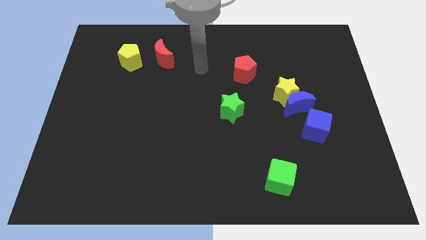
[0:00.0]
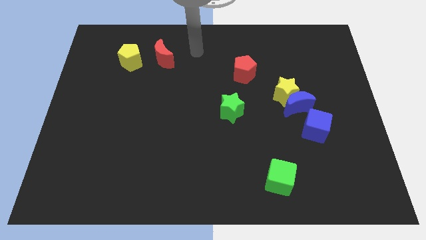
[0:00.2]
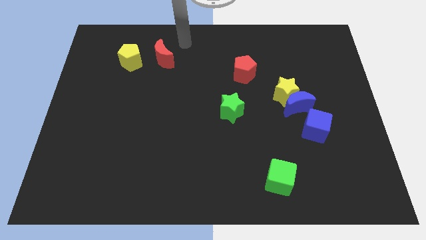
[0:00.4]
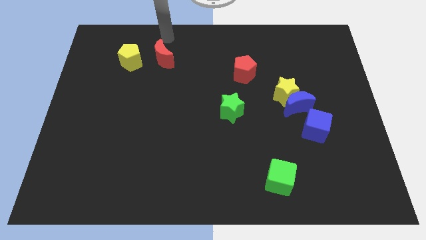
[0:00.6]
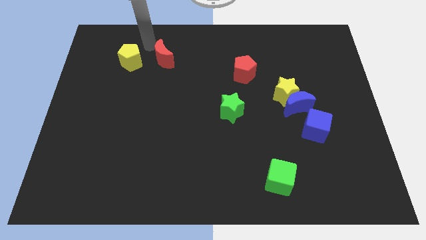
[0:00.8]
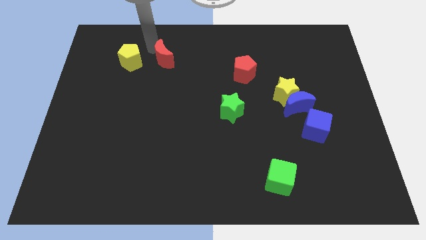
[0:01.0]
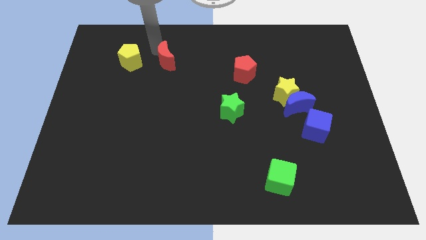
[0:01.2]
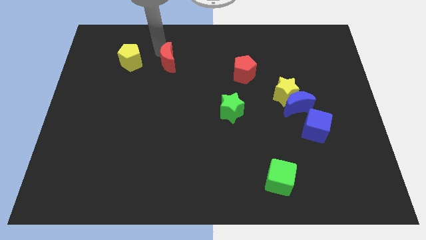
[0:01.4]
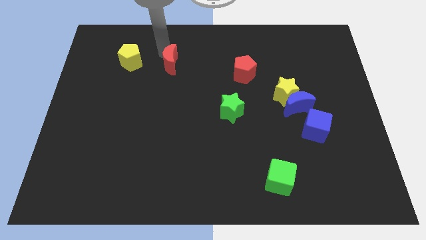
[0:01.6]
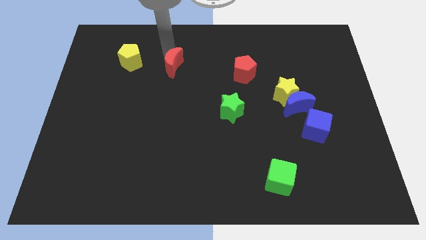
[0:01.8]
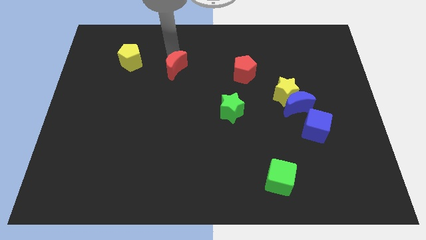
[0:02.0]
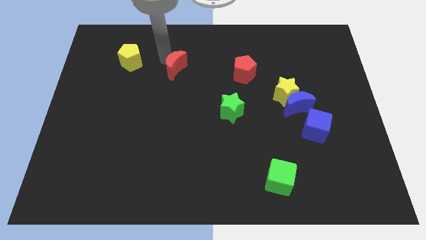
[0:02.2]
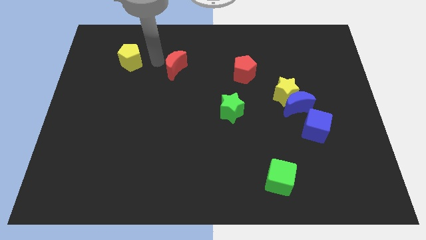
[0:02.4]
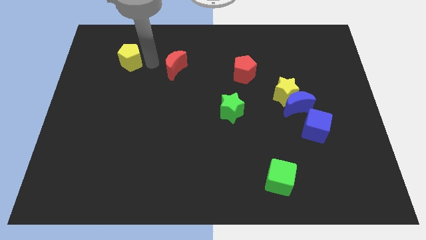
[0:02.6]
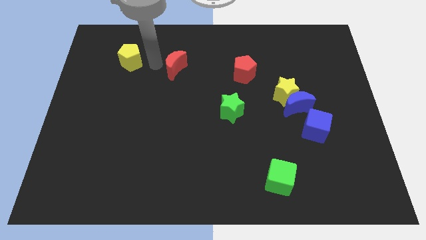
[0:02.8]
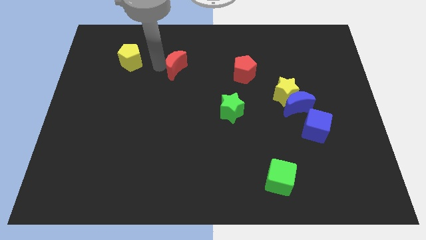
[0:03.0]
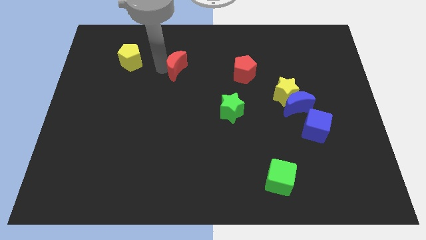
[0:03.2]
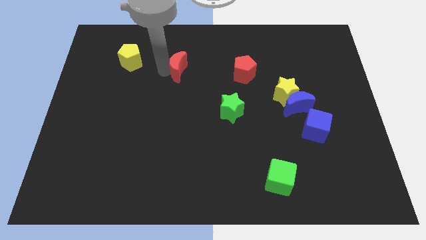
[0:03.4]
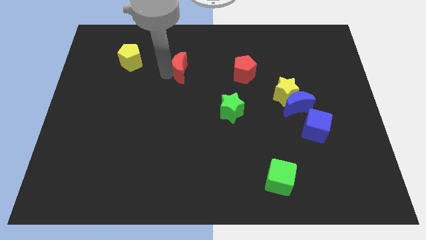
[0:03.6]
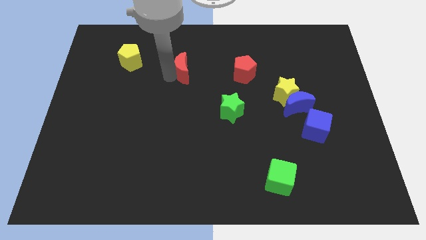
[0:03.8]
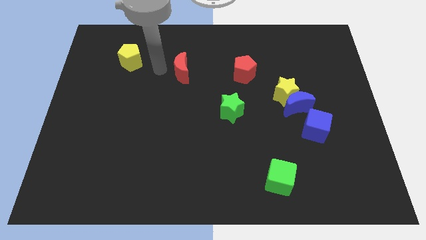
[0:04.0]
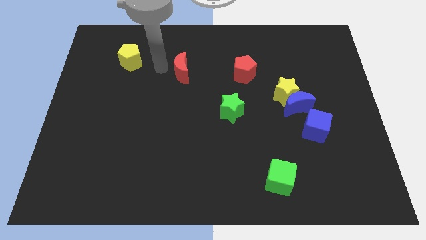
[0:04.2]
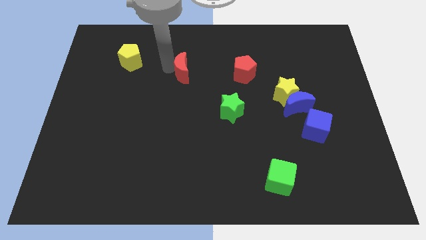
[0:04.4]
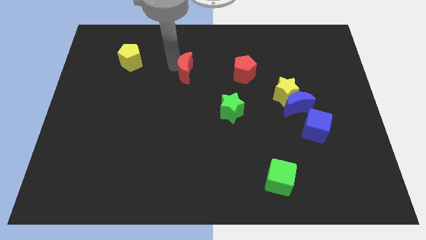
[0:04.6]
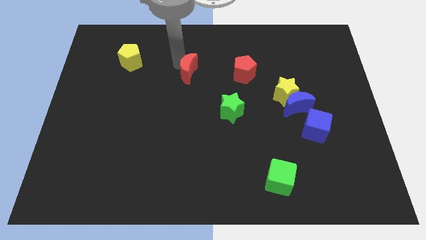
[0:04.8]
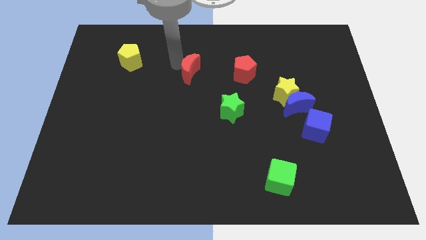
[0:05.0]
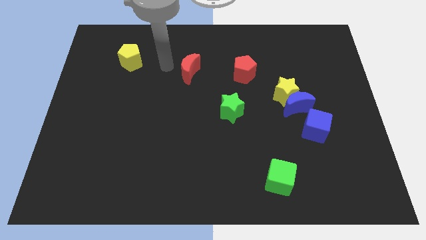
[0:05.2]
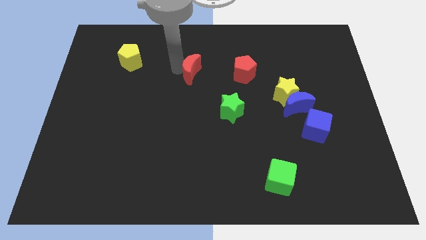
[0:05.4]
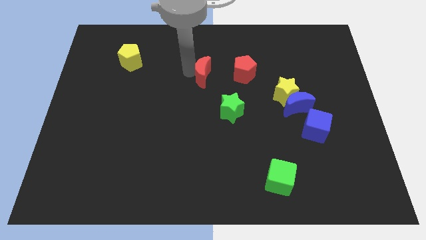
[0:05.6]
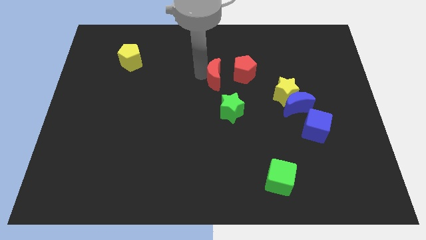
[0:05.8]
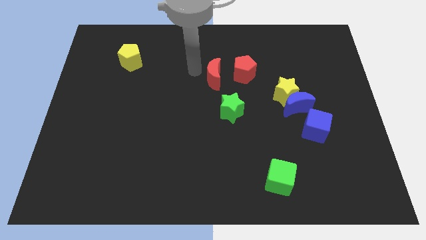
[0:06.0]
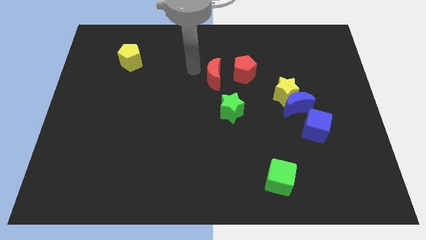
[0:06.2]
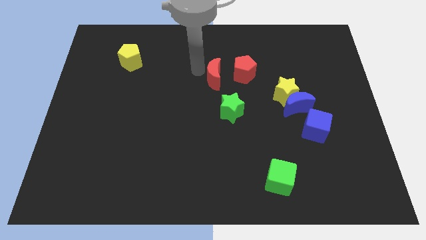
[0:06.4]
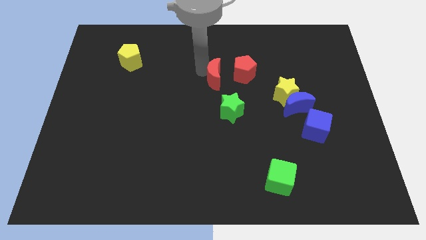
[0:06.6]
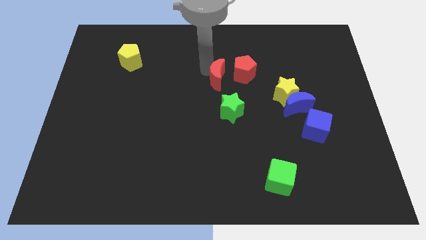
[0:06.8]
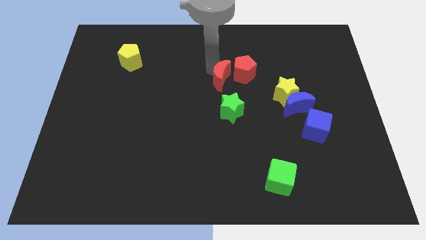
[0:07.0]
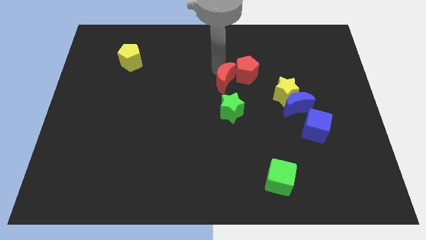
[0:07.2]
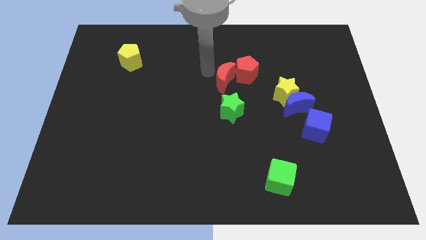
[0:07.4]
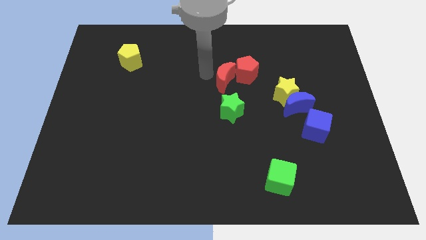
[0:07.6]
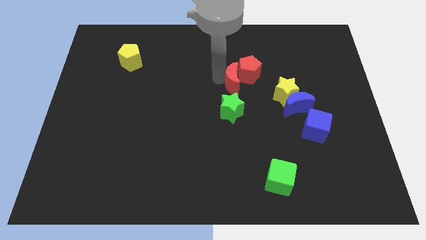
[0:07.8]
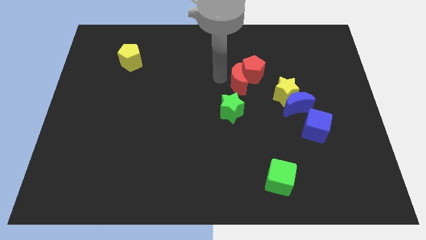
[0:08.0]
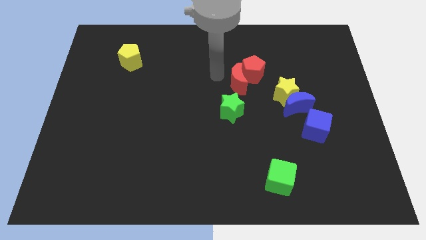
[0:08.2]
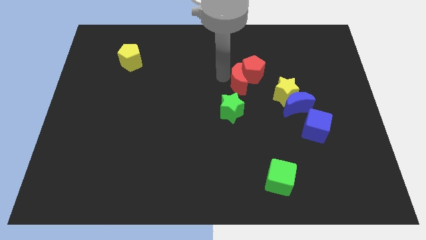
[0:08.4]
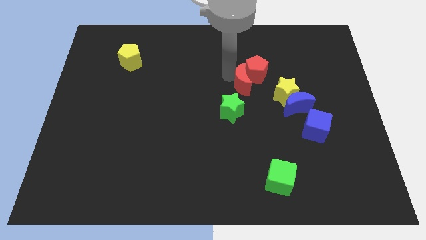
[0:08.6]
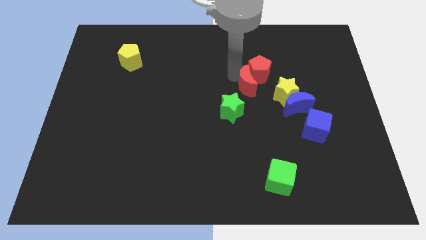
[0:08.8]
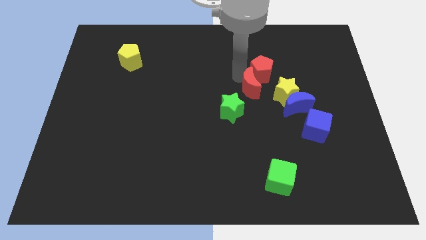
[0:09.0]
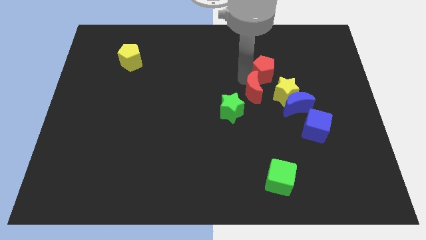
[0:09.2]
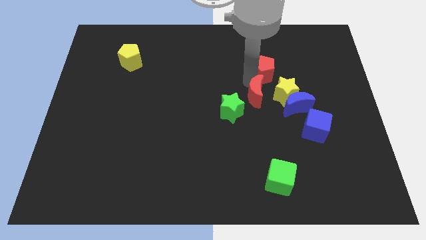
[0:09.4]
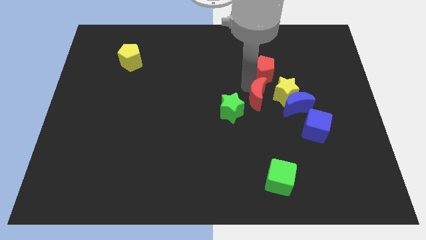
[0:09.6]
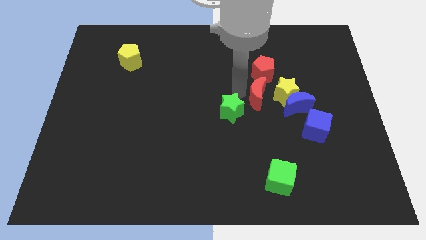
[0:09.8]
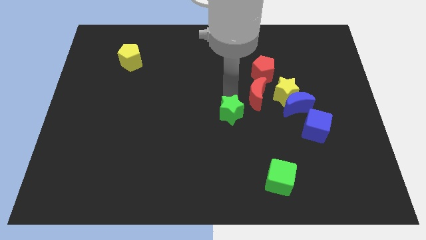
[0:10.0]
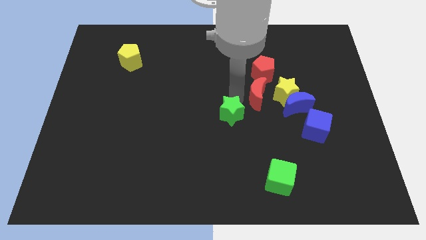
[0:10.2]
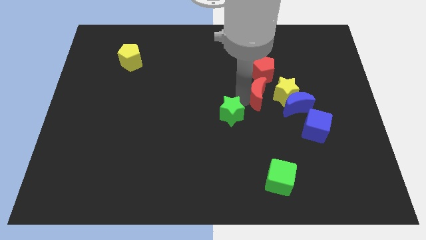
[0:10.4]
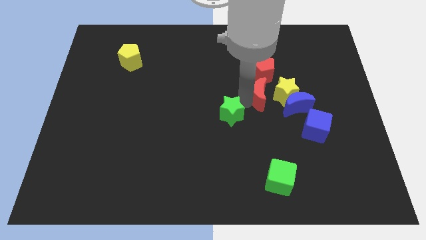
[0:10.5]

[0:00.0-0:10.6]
put the red moon next to the yellow star

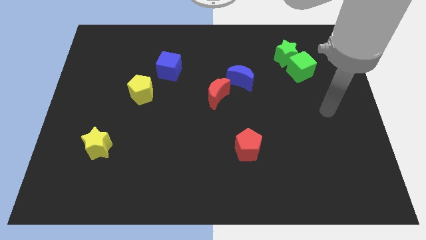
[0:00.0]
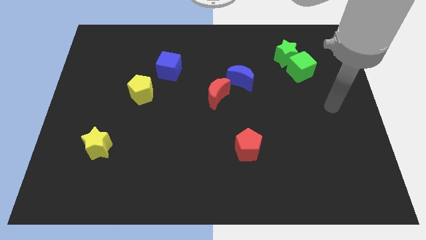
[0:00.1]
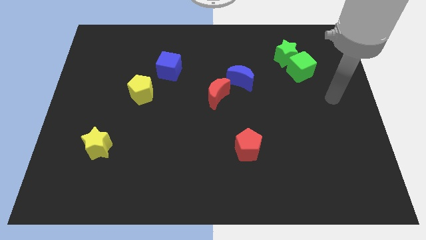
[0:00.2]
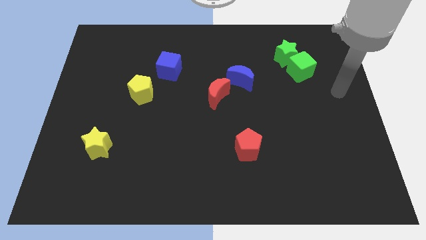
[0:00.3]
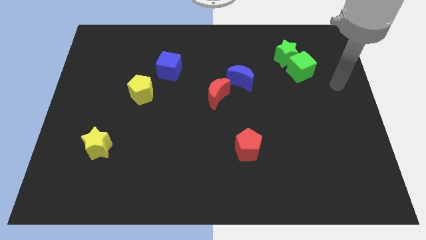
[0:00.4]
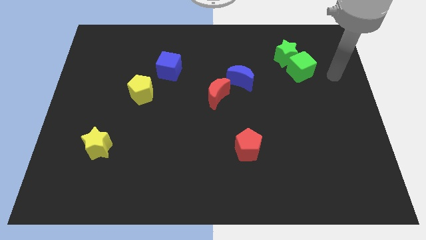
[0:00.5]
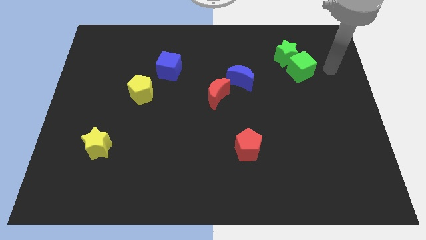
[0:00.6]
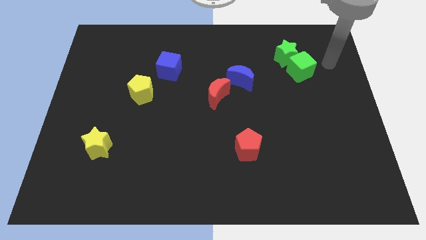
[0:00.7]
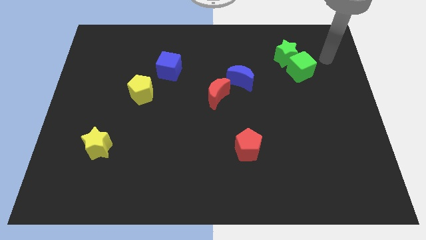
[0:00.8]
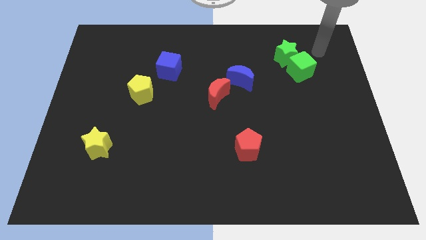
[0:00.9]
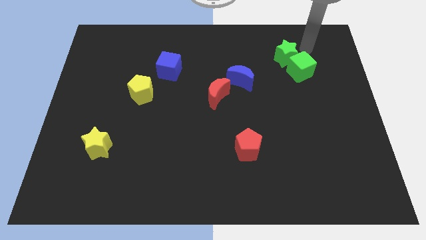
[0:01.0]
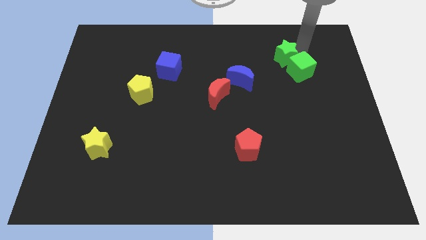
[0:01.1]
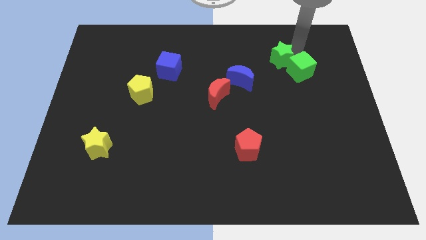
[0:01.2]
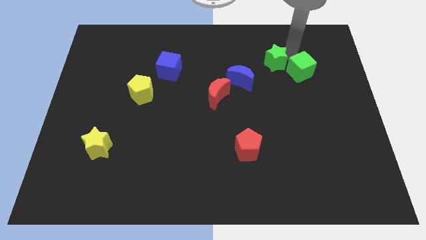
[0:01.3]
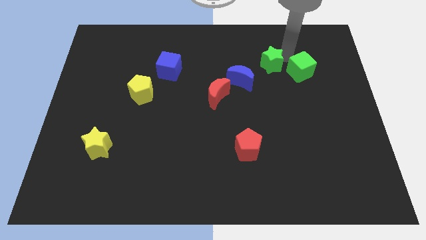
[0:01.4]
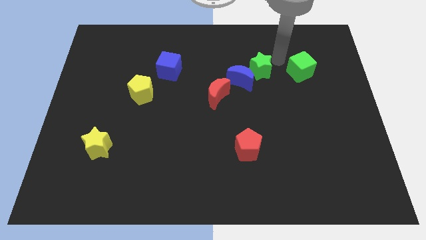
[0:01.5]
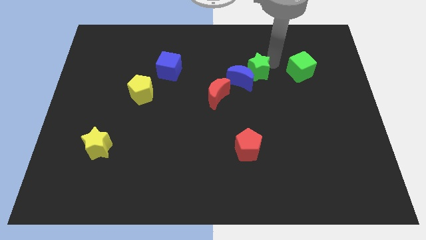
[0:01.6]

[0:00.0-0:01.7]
push the green star towards the blue moon
